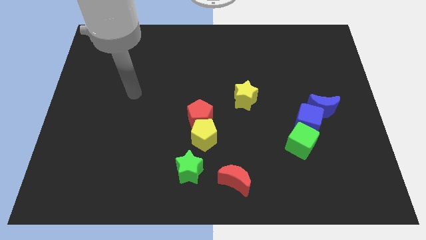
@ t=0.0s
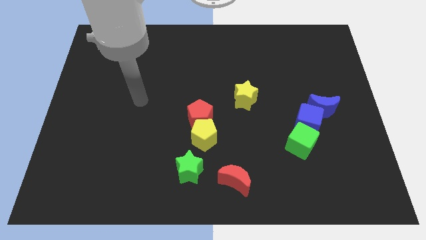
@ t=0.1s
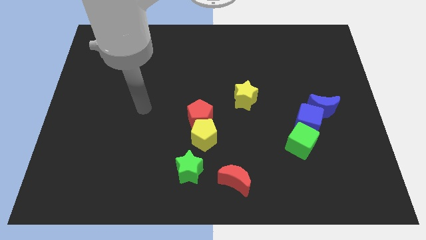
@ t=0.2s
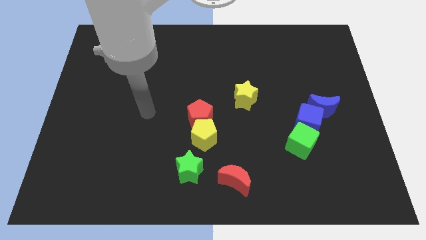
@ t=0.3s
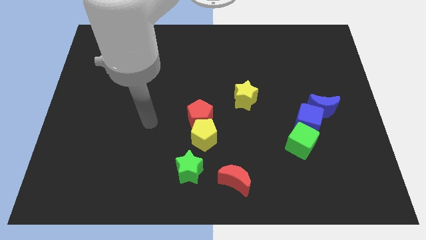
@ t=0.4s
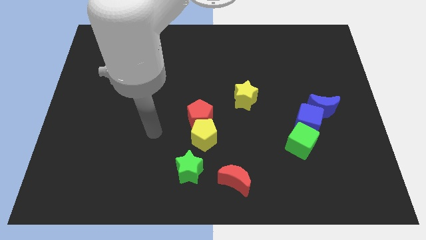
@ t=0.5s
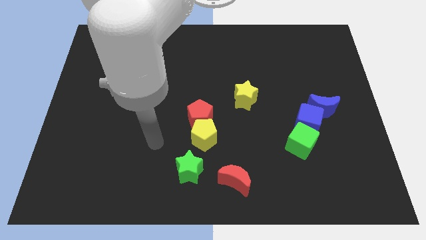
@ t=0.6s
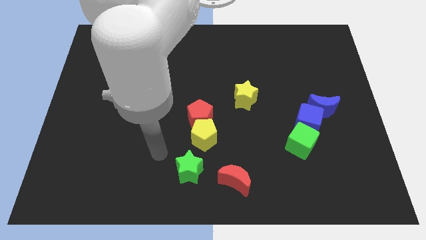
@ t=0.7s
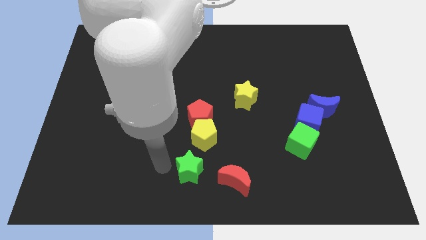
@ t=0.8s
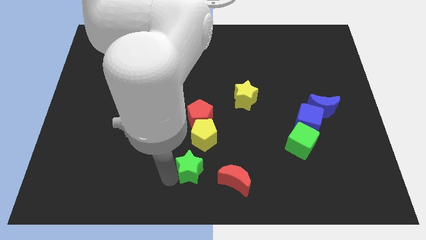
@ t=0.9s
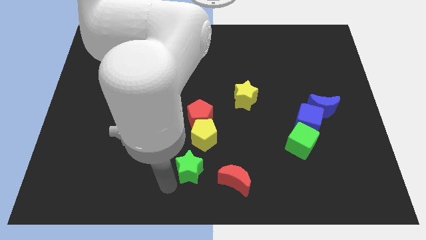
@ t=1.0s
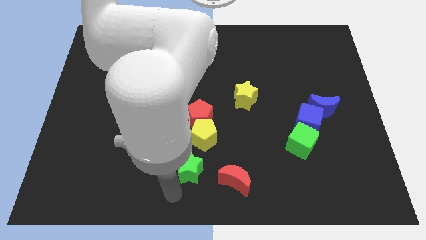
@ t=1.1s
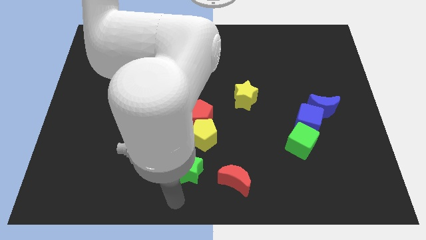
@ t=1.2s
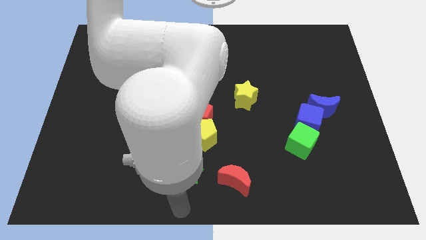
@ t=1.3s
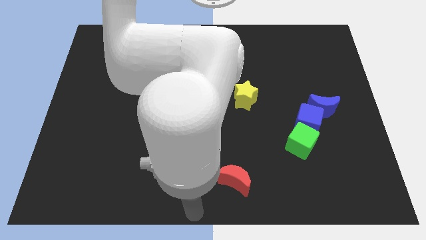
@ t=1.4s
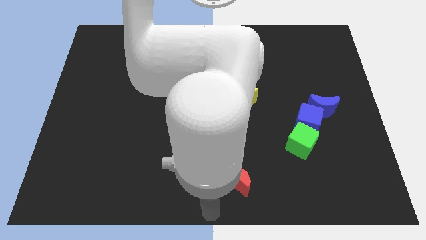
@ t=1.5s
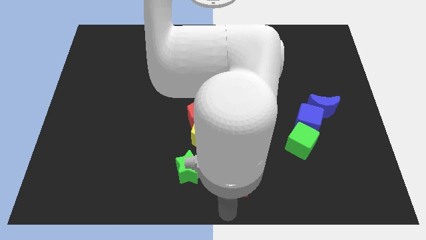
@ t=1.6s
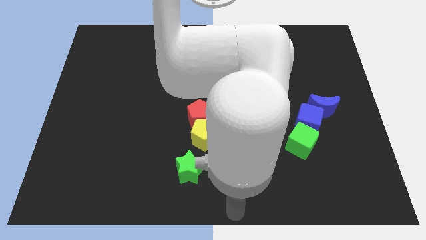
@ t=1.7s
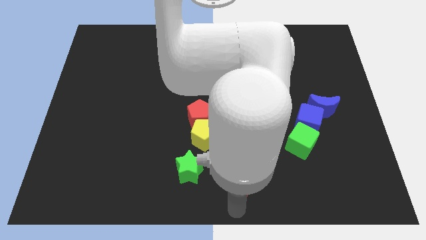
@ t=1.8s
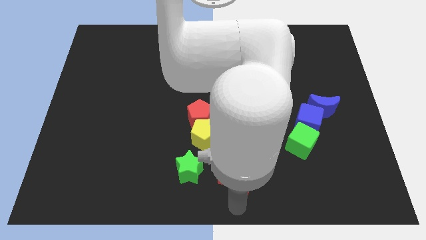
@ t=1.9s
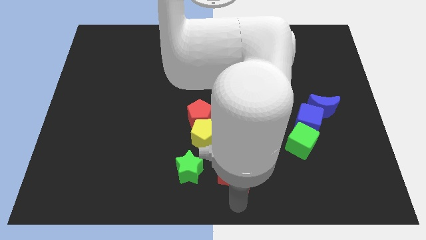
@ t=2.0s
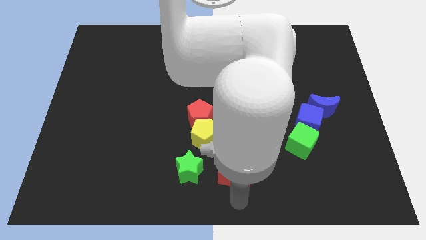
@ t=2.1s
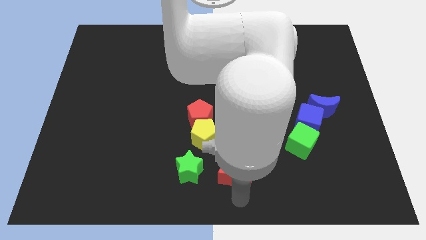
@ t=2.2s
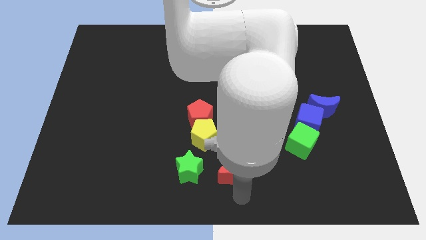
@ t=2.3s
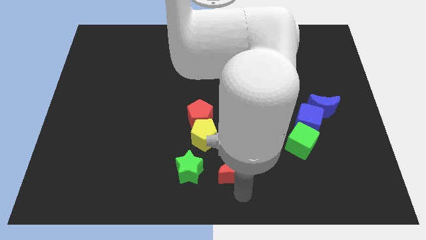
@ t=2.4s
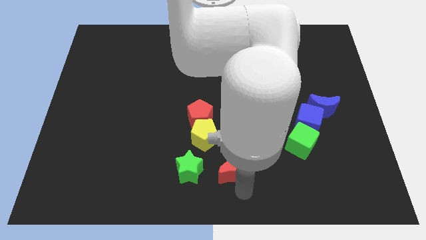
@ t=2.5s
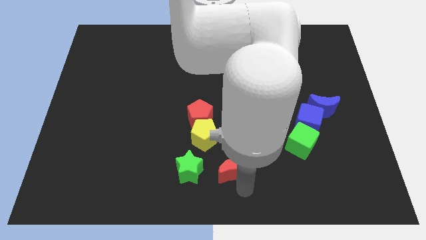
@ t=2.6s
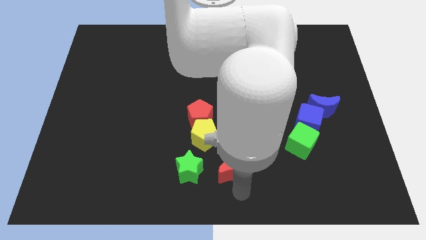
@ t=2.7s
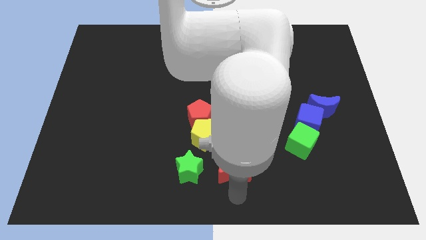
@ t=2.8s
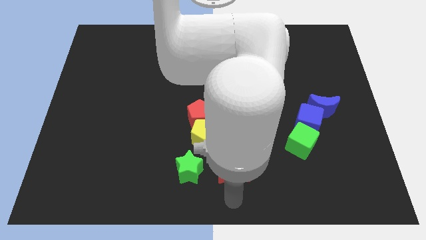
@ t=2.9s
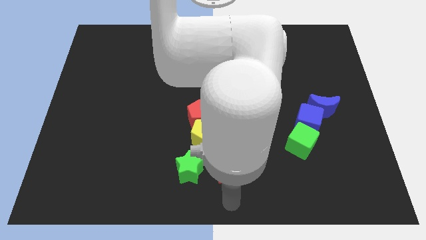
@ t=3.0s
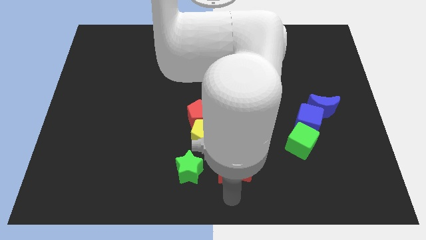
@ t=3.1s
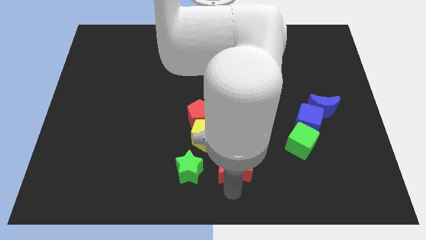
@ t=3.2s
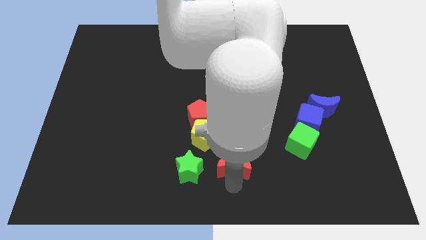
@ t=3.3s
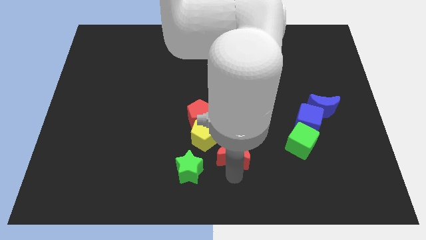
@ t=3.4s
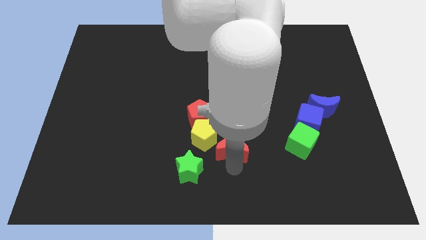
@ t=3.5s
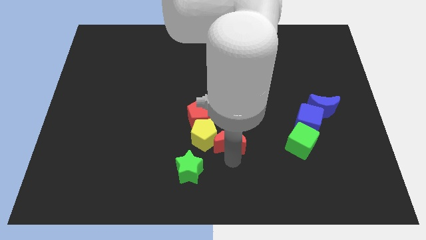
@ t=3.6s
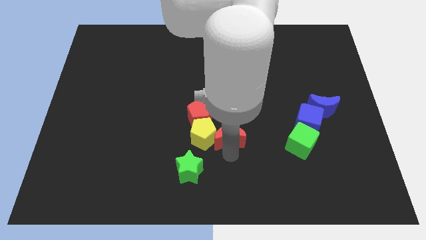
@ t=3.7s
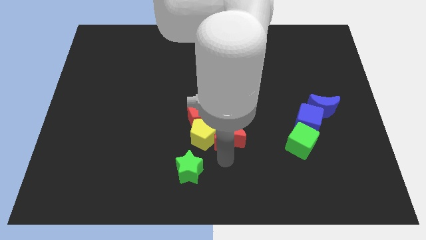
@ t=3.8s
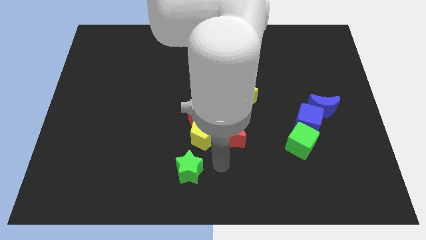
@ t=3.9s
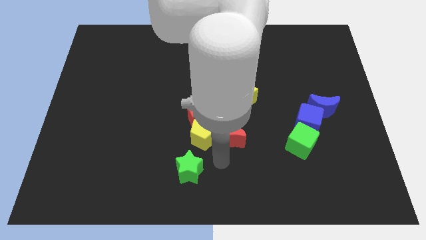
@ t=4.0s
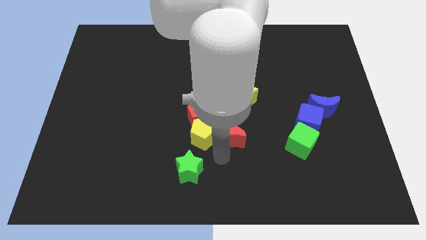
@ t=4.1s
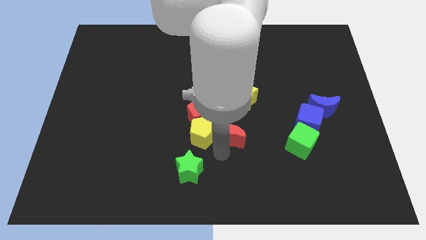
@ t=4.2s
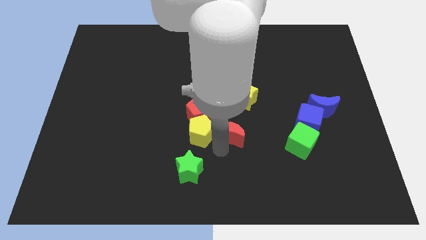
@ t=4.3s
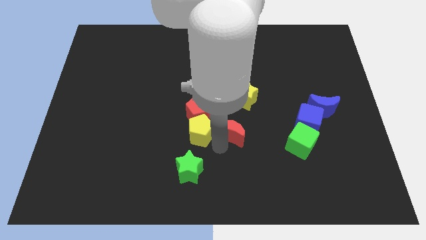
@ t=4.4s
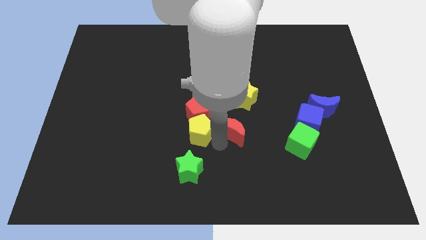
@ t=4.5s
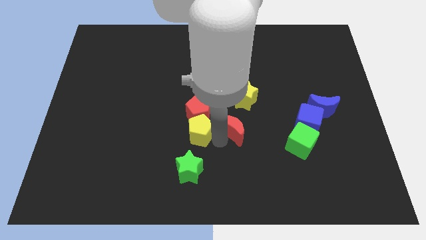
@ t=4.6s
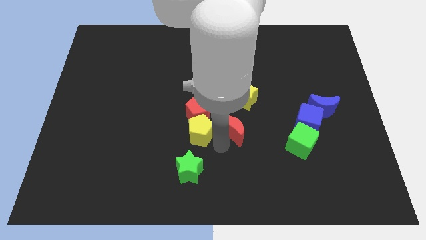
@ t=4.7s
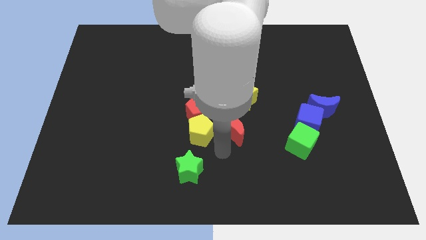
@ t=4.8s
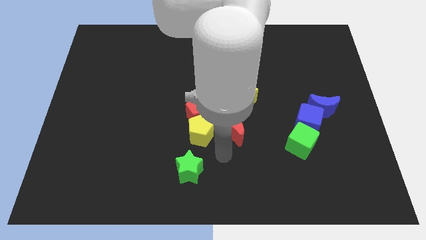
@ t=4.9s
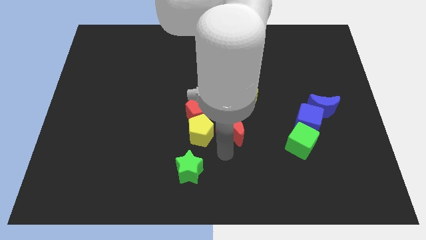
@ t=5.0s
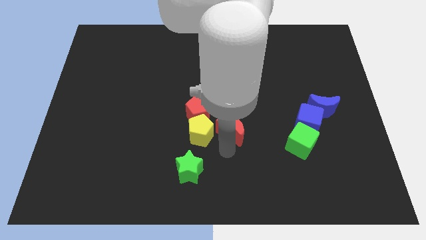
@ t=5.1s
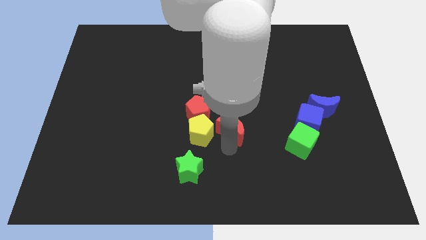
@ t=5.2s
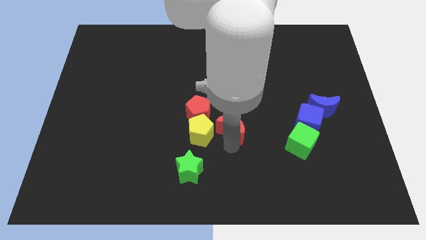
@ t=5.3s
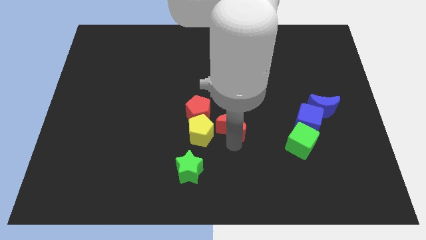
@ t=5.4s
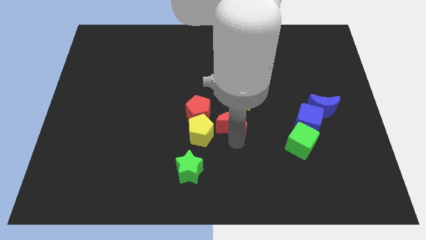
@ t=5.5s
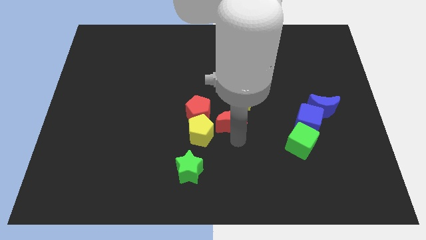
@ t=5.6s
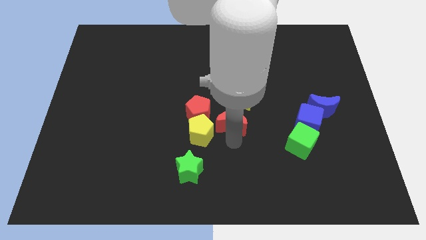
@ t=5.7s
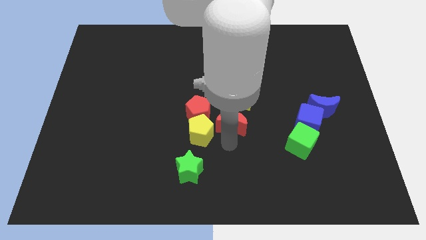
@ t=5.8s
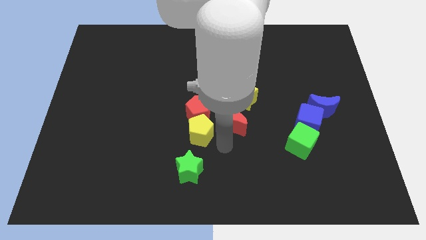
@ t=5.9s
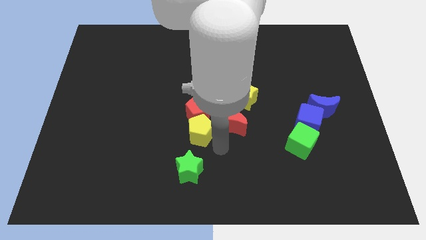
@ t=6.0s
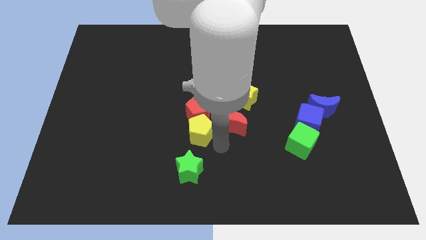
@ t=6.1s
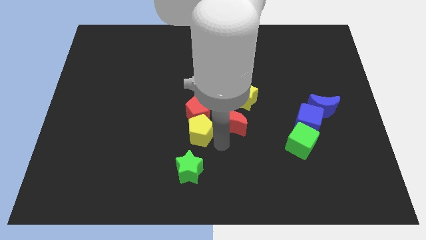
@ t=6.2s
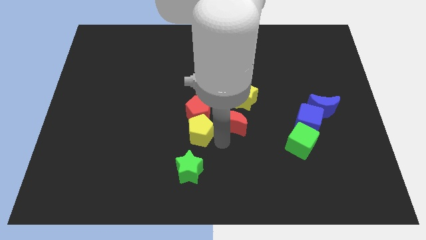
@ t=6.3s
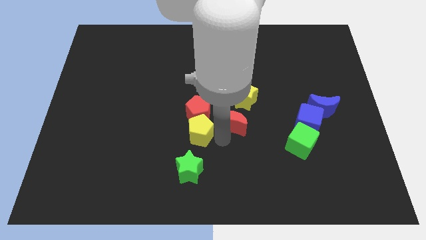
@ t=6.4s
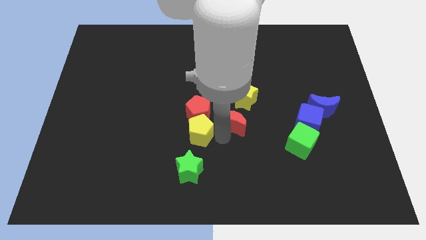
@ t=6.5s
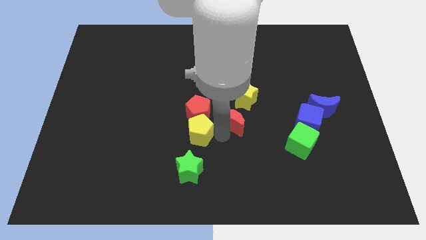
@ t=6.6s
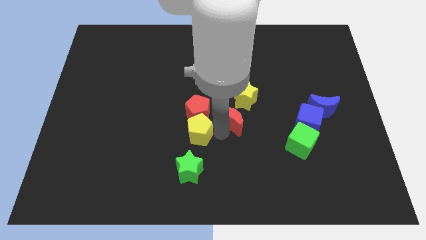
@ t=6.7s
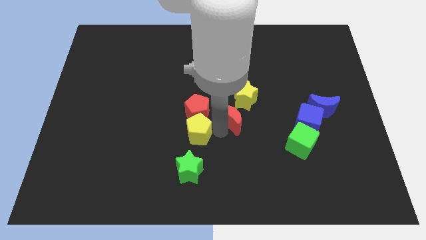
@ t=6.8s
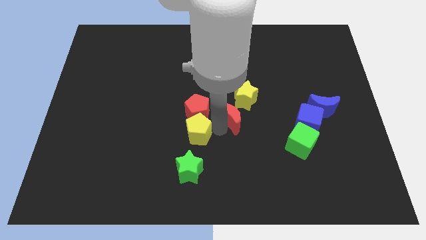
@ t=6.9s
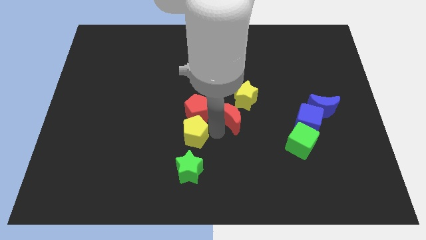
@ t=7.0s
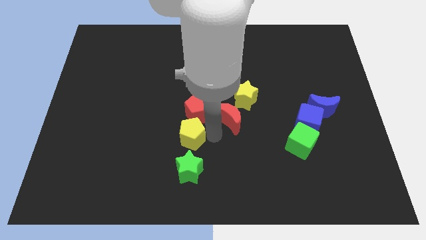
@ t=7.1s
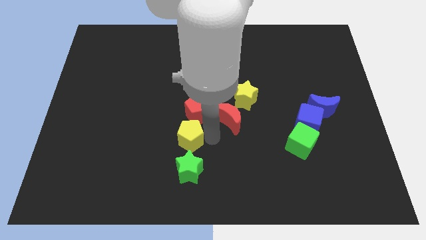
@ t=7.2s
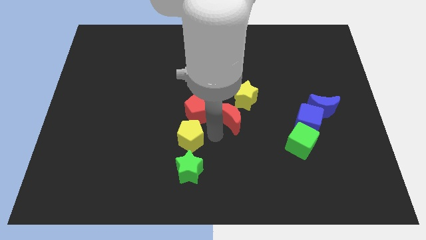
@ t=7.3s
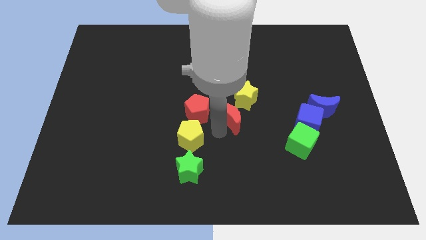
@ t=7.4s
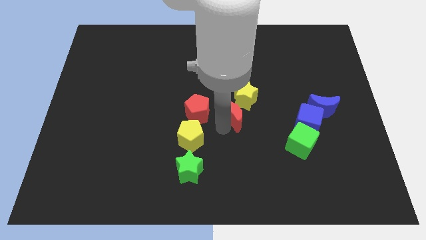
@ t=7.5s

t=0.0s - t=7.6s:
slide the red moon towards the yellow star
